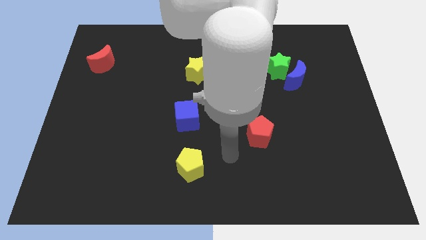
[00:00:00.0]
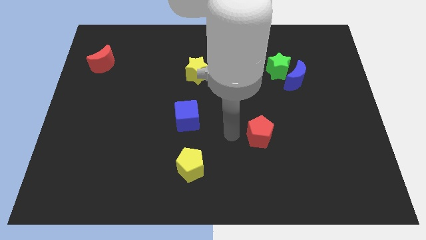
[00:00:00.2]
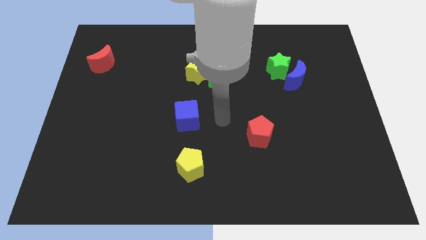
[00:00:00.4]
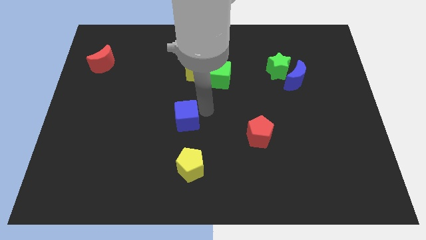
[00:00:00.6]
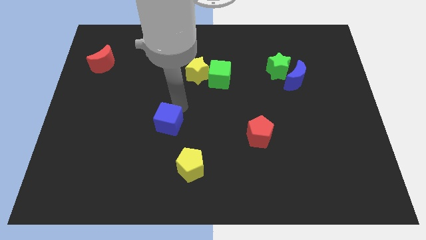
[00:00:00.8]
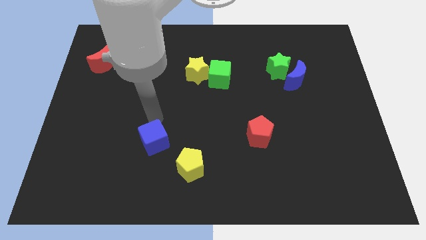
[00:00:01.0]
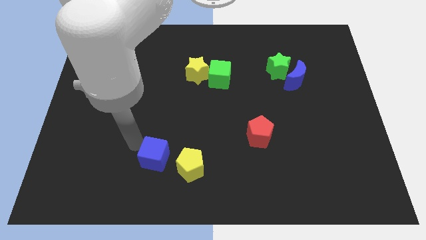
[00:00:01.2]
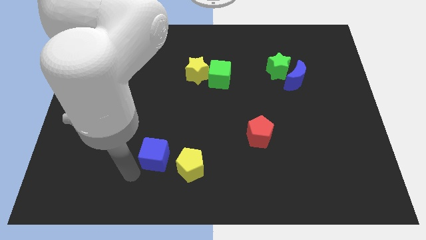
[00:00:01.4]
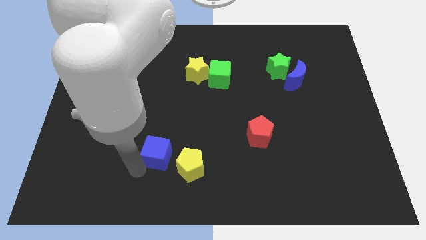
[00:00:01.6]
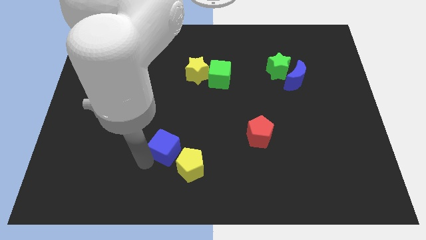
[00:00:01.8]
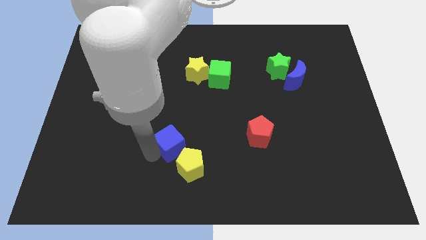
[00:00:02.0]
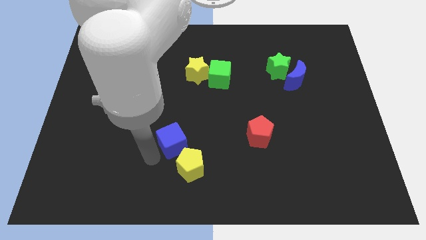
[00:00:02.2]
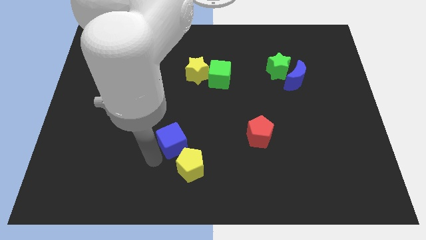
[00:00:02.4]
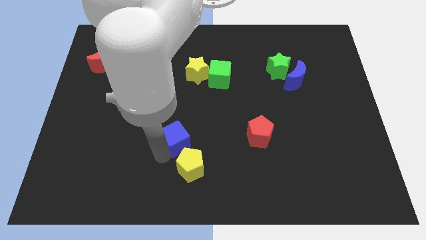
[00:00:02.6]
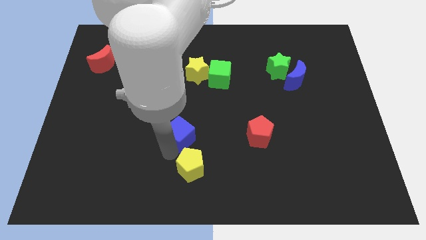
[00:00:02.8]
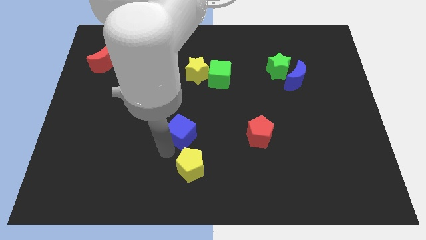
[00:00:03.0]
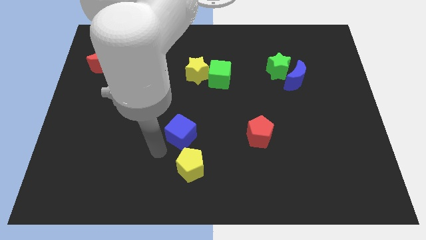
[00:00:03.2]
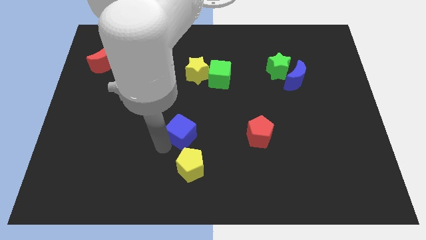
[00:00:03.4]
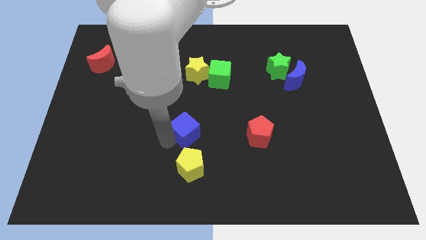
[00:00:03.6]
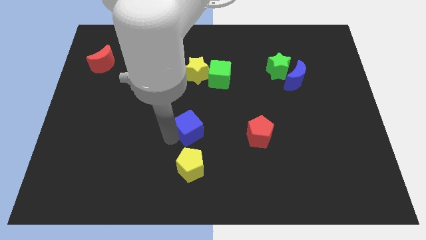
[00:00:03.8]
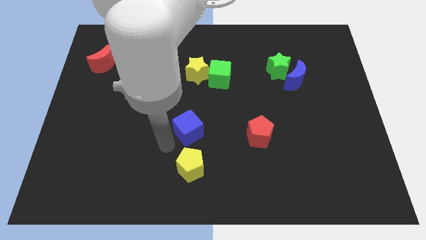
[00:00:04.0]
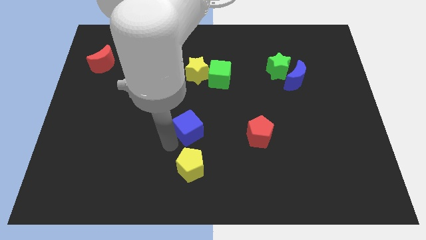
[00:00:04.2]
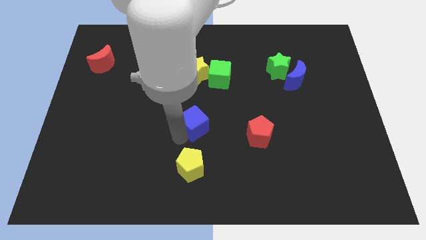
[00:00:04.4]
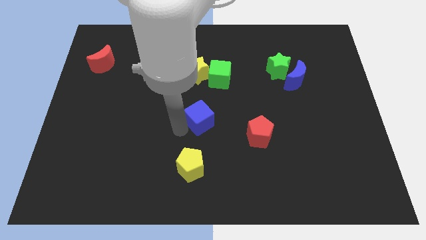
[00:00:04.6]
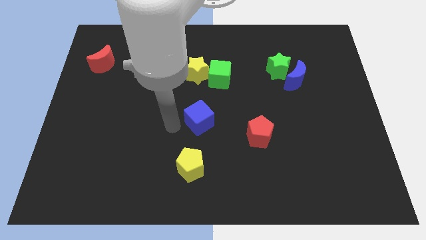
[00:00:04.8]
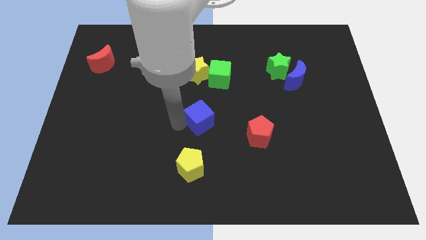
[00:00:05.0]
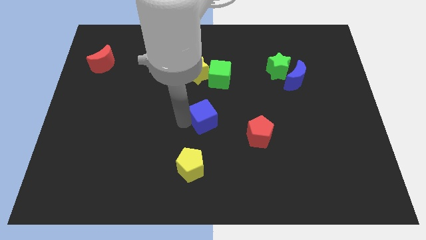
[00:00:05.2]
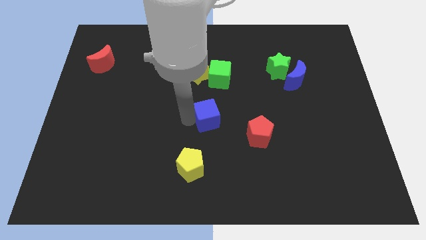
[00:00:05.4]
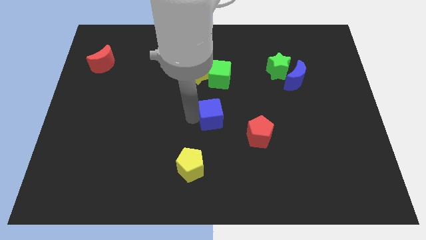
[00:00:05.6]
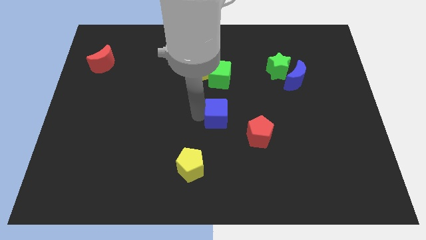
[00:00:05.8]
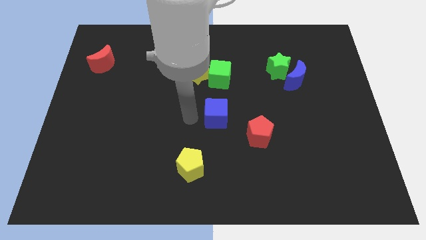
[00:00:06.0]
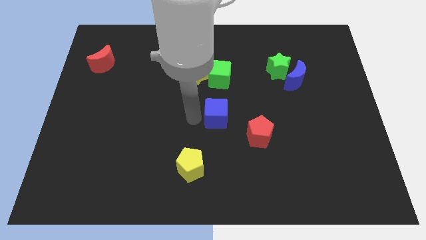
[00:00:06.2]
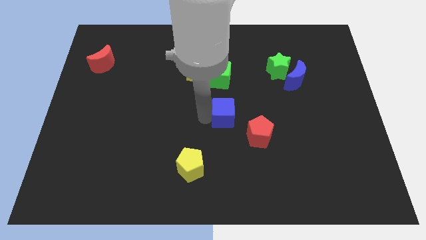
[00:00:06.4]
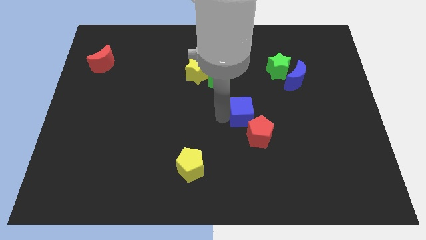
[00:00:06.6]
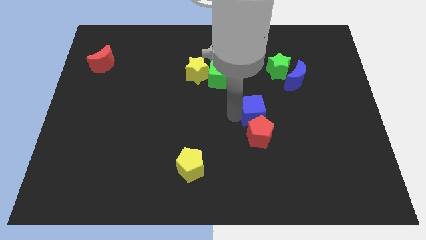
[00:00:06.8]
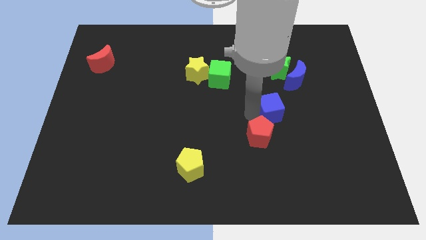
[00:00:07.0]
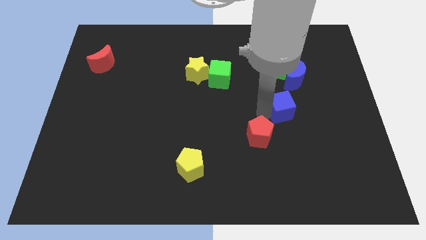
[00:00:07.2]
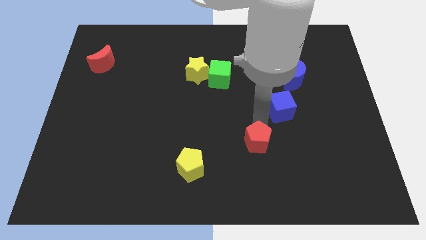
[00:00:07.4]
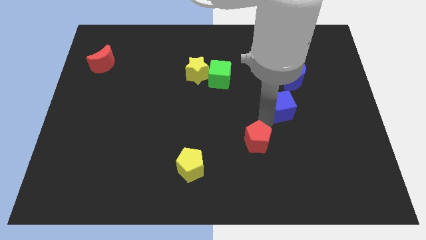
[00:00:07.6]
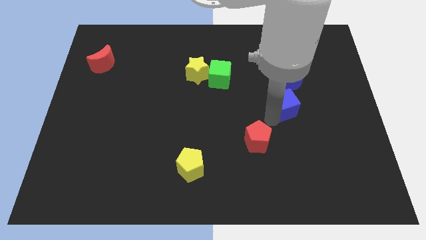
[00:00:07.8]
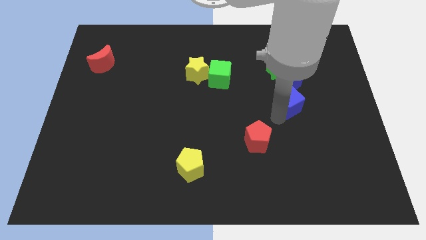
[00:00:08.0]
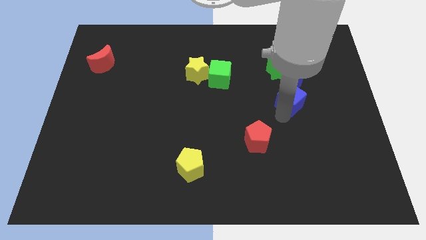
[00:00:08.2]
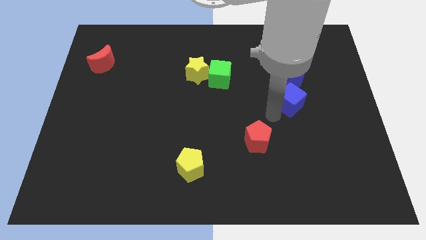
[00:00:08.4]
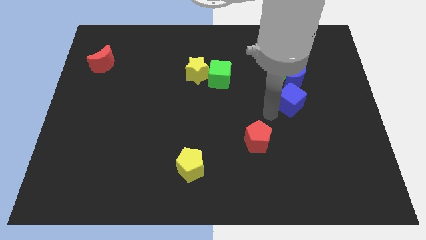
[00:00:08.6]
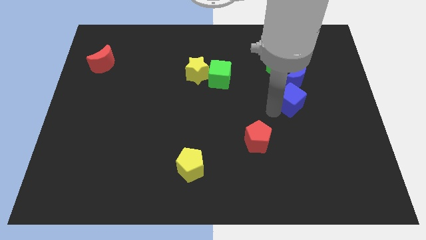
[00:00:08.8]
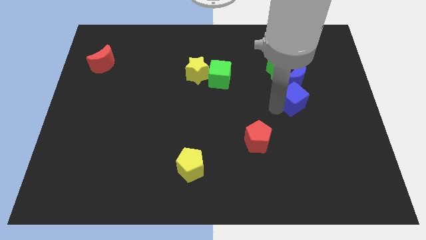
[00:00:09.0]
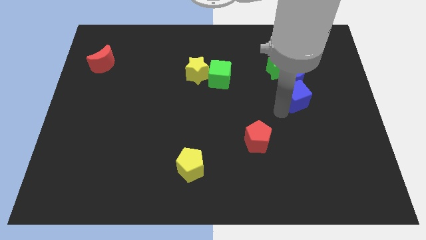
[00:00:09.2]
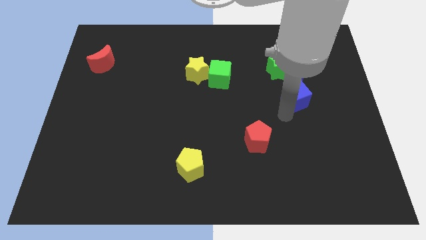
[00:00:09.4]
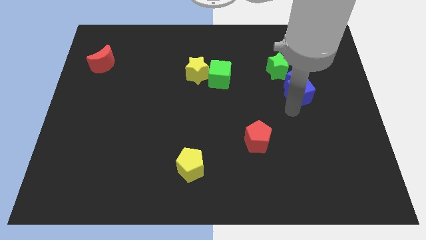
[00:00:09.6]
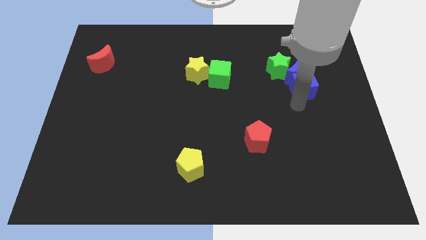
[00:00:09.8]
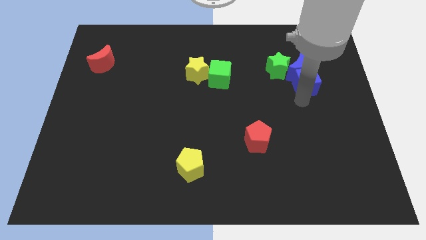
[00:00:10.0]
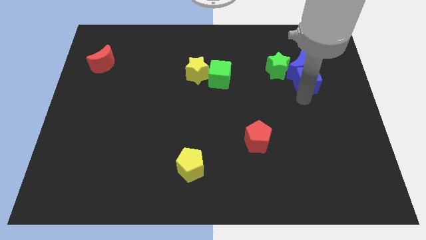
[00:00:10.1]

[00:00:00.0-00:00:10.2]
slide the blue cube to the right of the green star

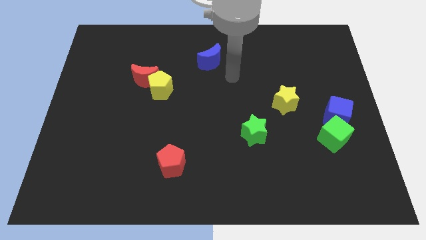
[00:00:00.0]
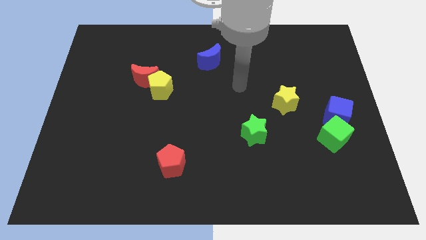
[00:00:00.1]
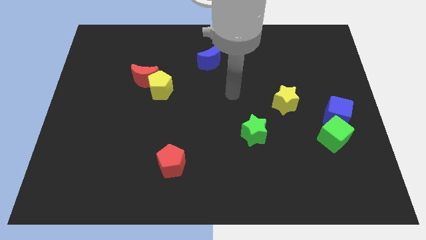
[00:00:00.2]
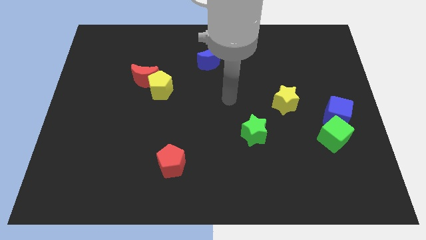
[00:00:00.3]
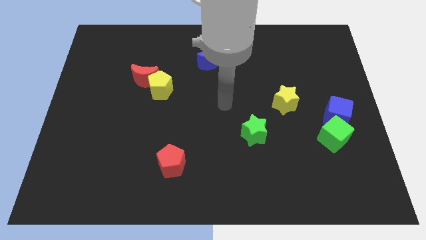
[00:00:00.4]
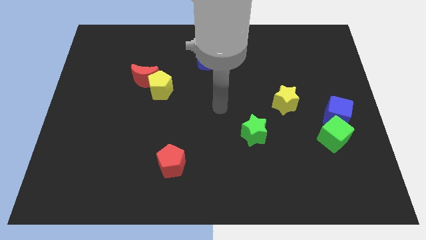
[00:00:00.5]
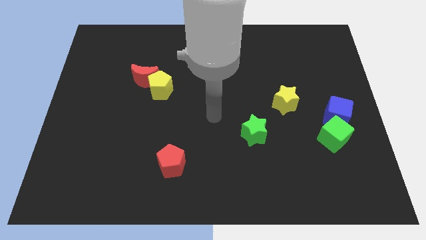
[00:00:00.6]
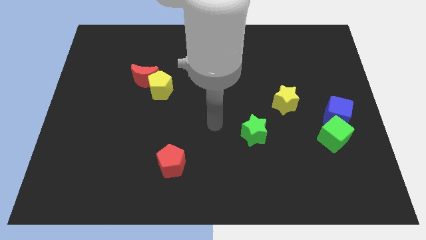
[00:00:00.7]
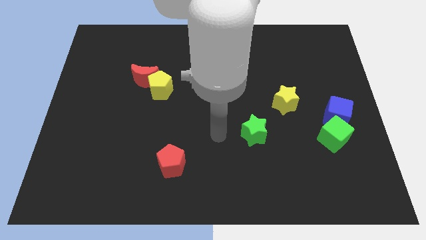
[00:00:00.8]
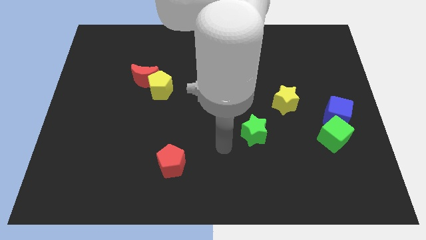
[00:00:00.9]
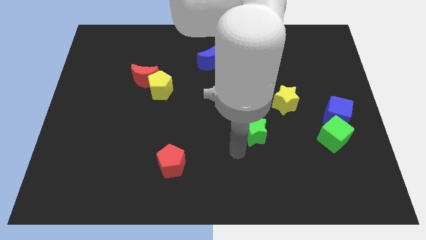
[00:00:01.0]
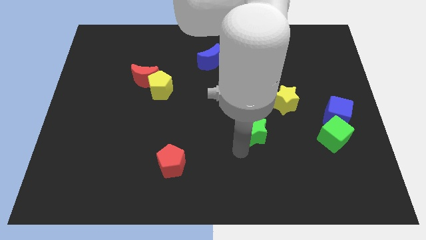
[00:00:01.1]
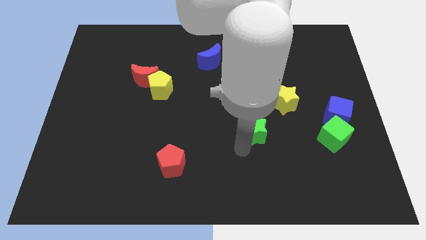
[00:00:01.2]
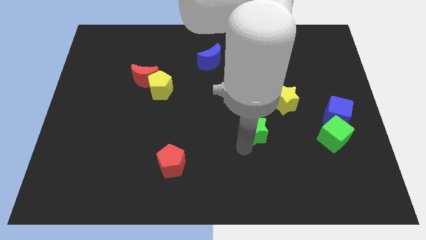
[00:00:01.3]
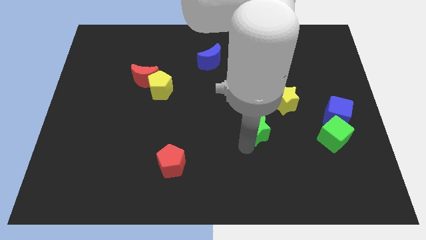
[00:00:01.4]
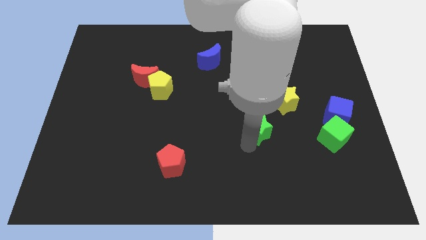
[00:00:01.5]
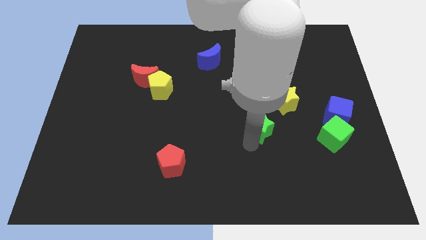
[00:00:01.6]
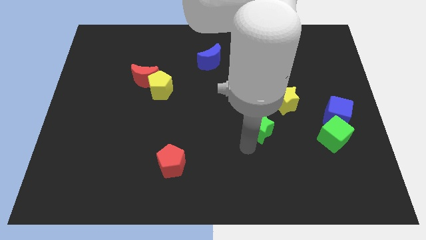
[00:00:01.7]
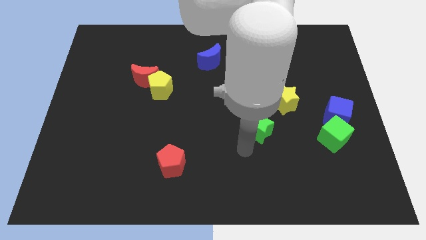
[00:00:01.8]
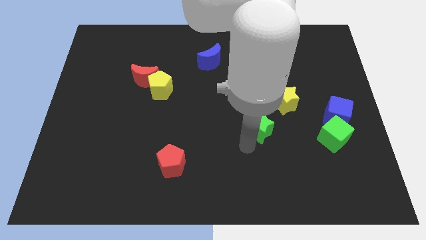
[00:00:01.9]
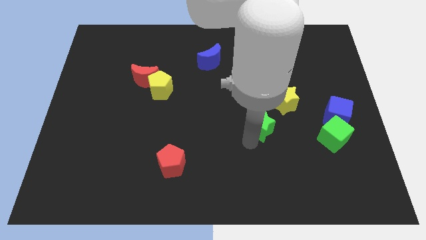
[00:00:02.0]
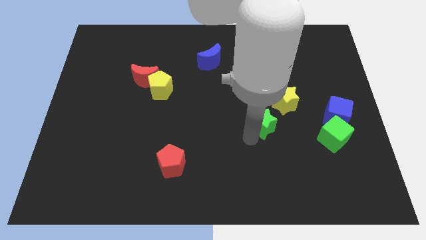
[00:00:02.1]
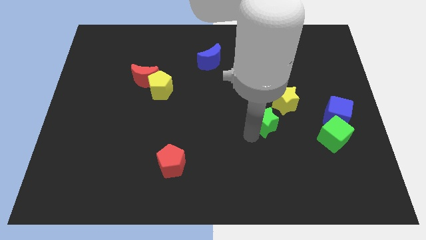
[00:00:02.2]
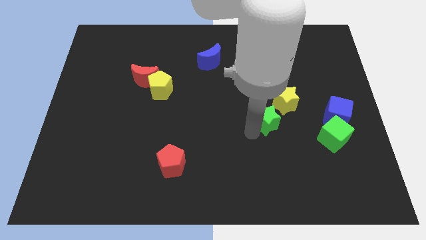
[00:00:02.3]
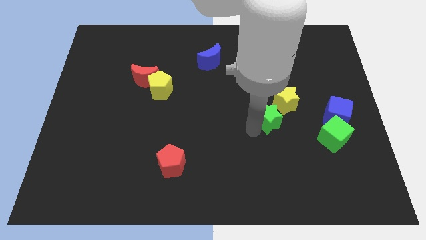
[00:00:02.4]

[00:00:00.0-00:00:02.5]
move the green star to the left of the blue cube
